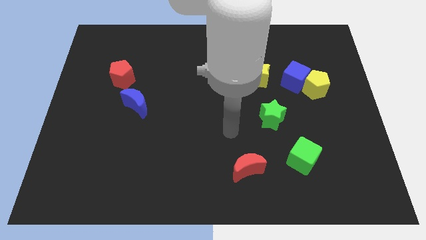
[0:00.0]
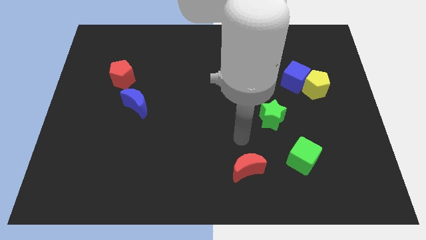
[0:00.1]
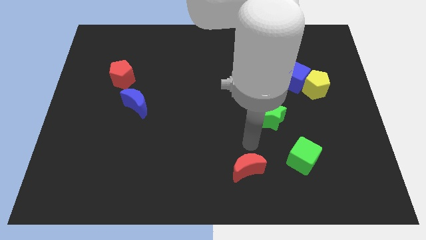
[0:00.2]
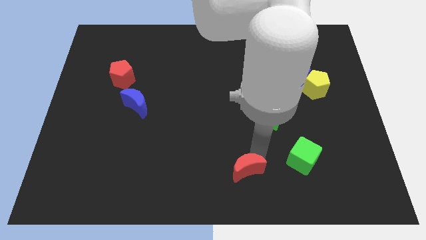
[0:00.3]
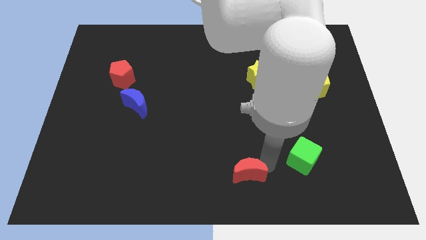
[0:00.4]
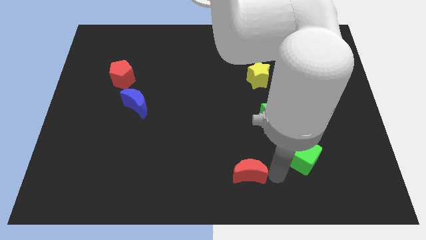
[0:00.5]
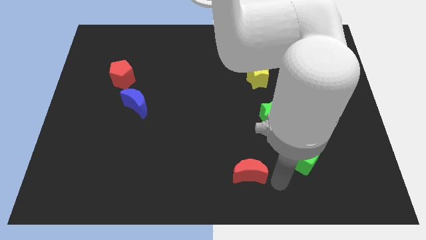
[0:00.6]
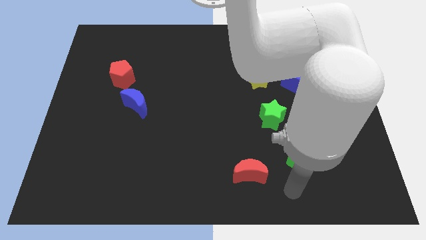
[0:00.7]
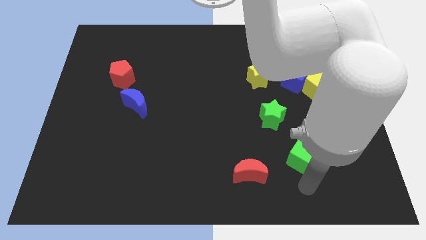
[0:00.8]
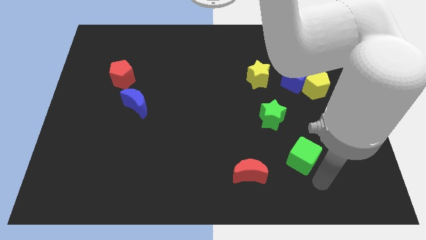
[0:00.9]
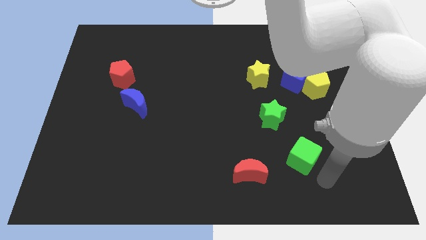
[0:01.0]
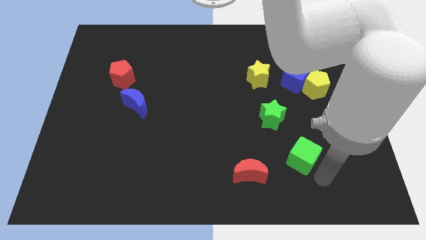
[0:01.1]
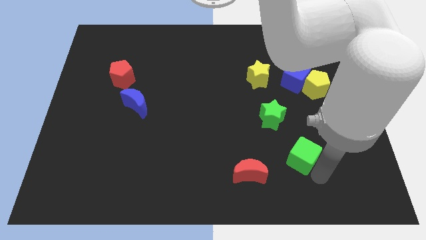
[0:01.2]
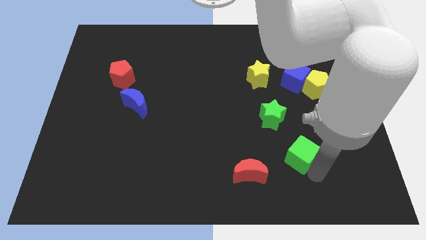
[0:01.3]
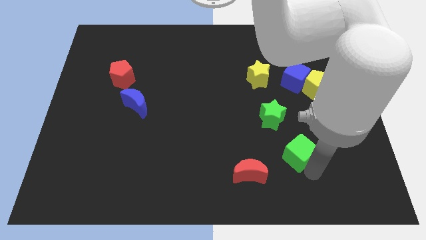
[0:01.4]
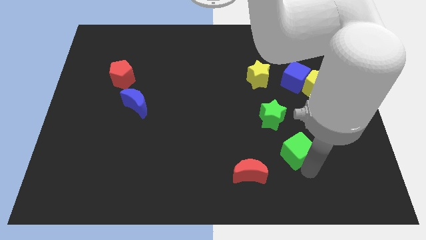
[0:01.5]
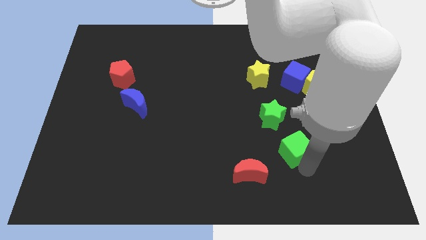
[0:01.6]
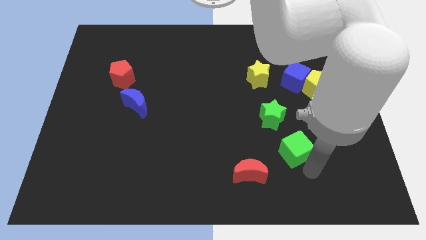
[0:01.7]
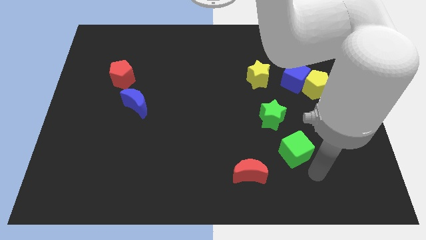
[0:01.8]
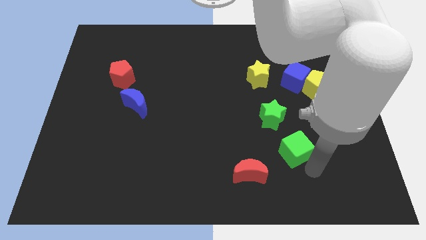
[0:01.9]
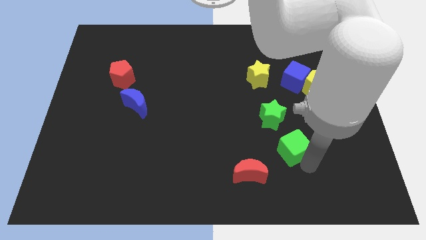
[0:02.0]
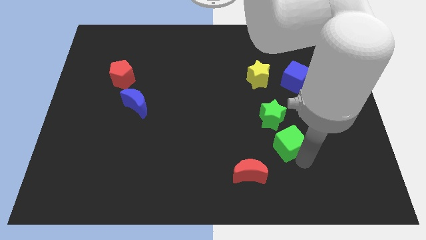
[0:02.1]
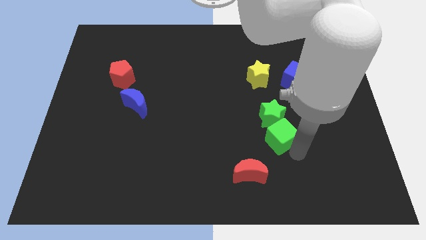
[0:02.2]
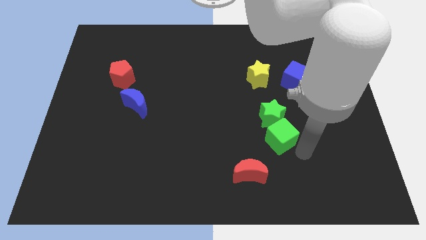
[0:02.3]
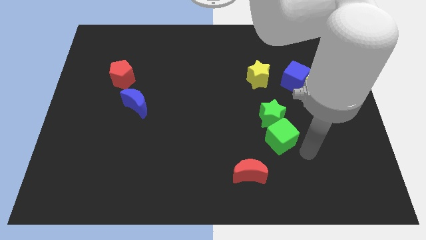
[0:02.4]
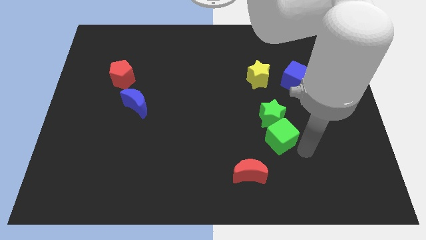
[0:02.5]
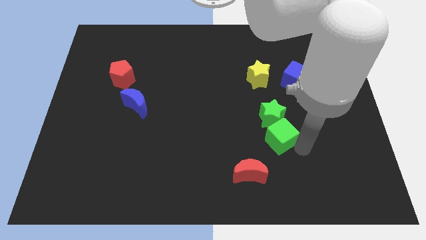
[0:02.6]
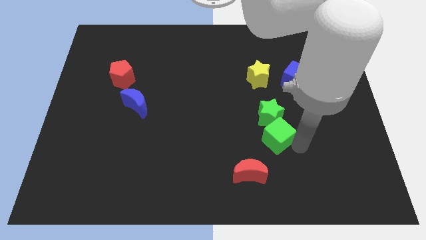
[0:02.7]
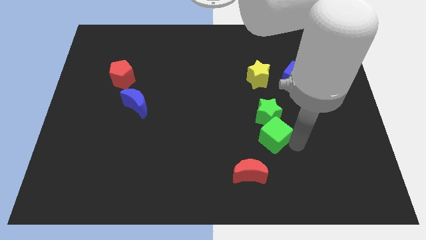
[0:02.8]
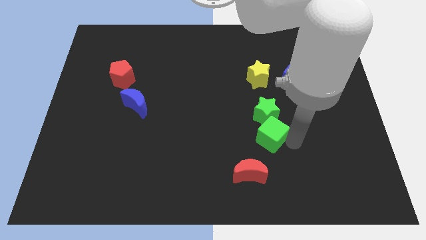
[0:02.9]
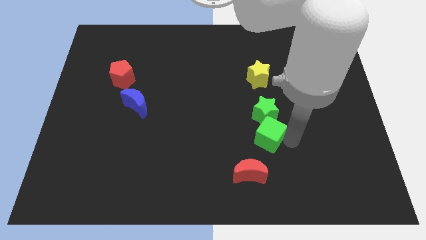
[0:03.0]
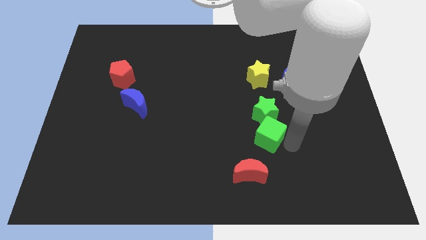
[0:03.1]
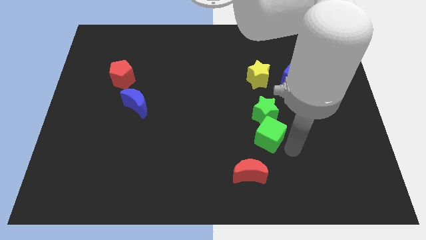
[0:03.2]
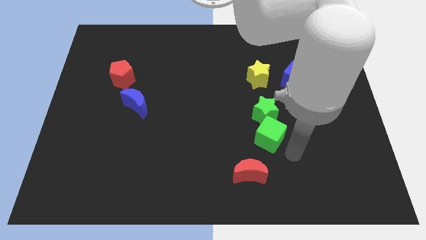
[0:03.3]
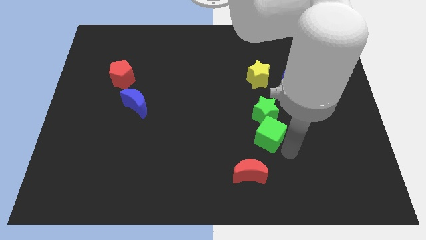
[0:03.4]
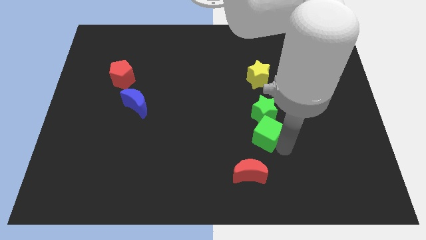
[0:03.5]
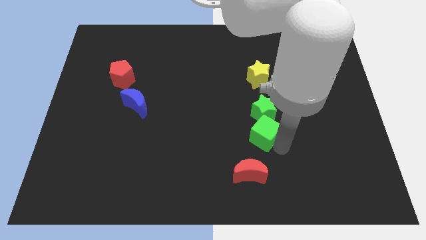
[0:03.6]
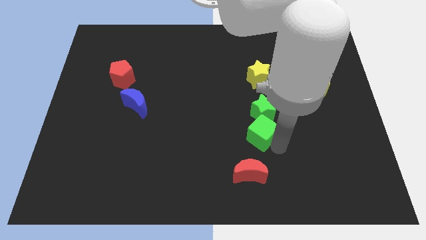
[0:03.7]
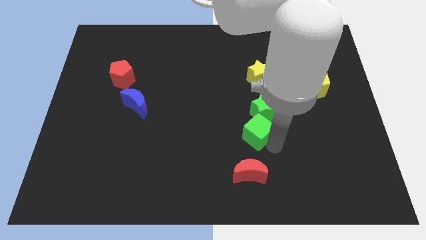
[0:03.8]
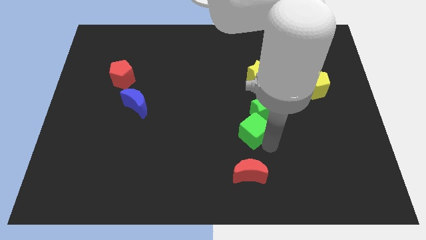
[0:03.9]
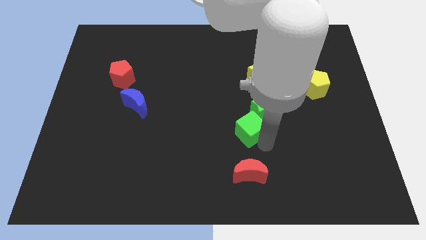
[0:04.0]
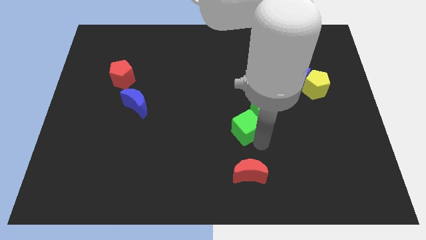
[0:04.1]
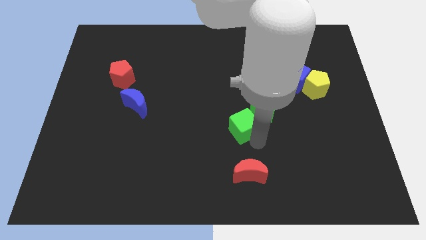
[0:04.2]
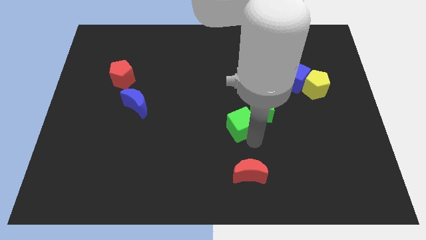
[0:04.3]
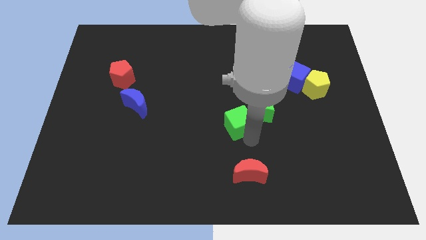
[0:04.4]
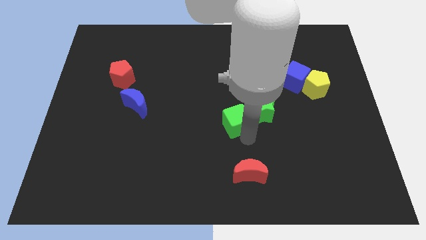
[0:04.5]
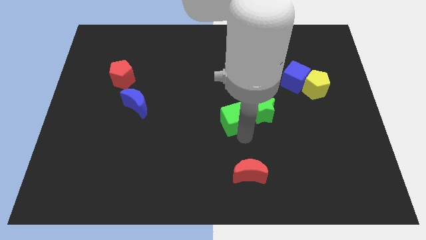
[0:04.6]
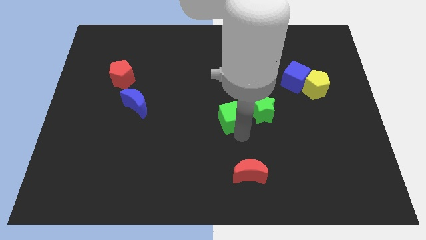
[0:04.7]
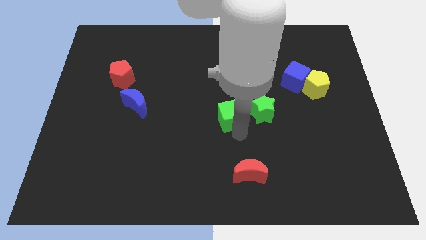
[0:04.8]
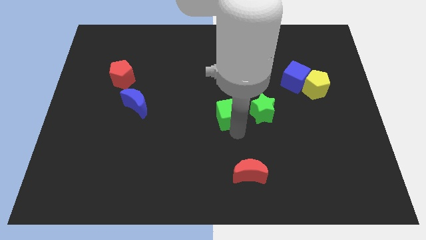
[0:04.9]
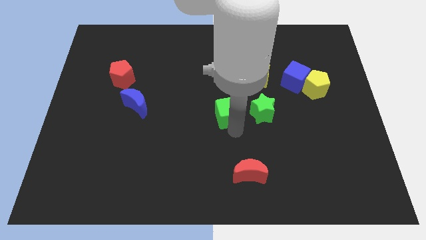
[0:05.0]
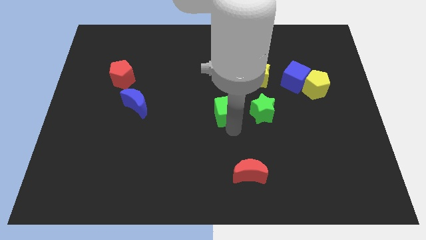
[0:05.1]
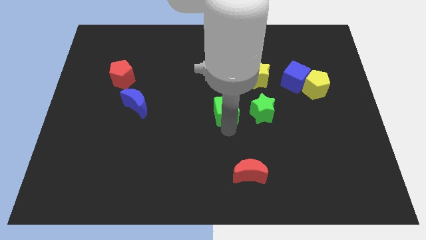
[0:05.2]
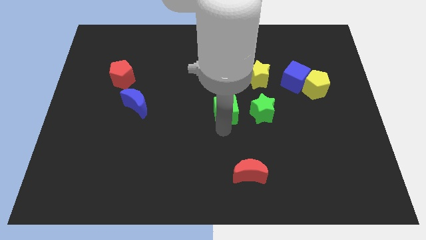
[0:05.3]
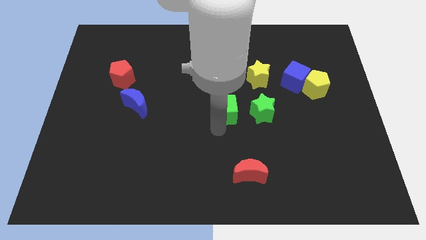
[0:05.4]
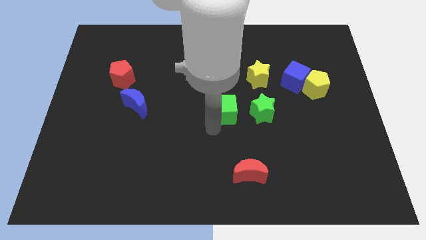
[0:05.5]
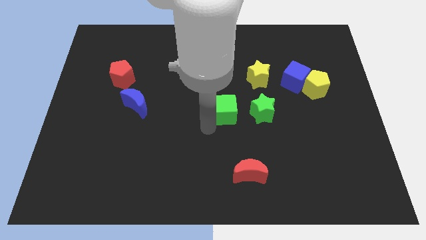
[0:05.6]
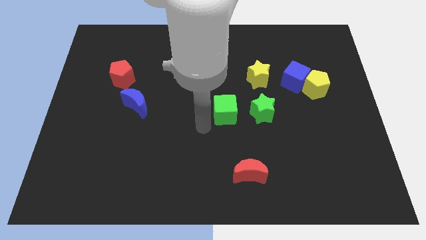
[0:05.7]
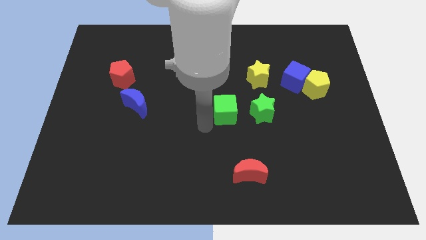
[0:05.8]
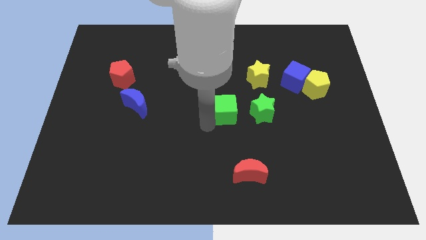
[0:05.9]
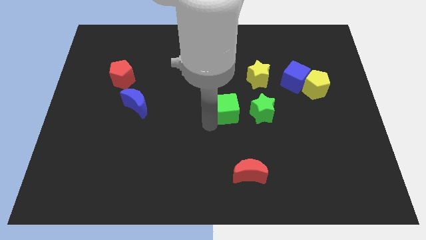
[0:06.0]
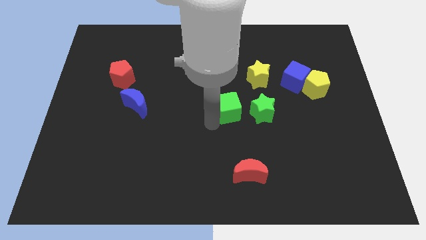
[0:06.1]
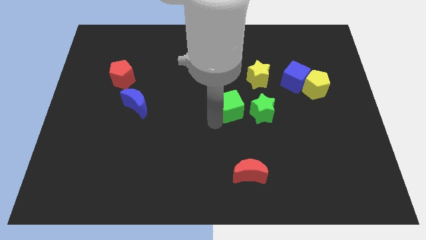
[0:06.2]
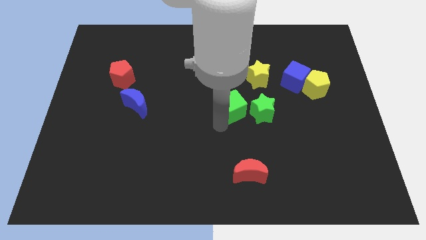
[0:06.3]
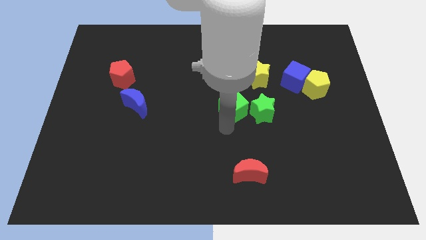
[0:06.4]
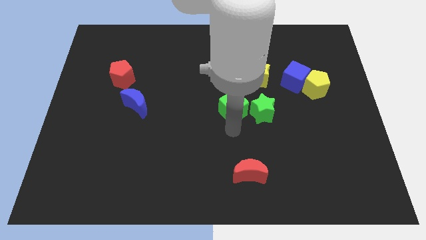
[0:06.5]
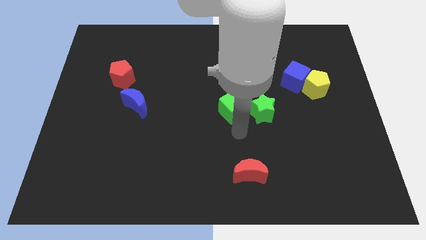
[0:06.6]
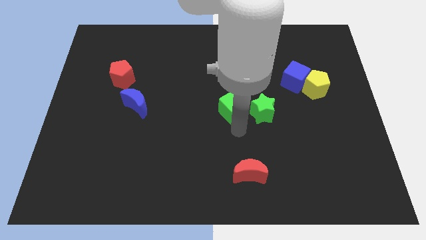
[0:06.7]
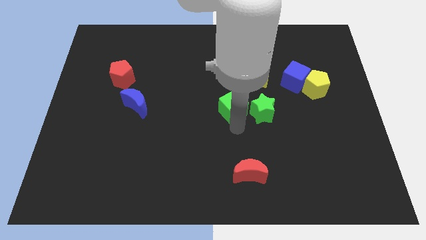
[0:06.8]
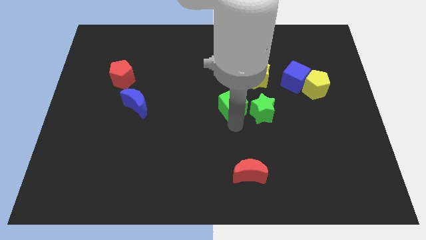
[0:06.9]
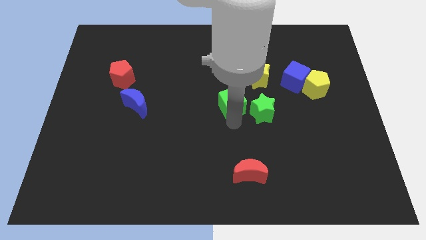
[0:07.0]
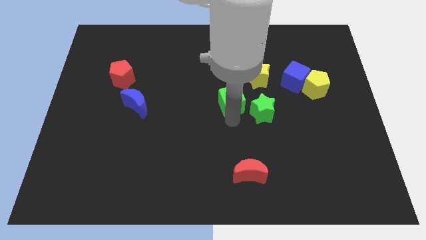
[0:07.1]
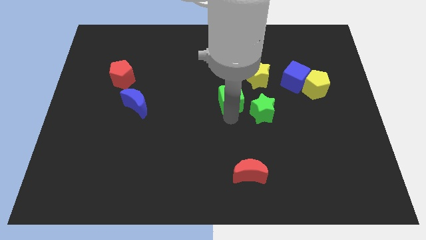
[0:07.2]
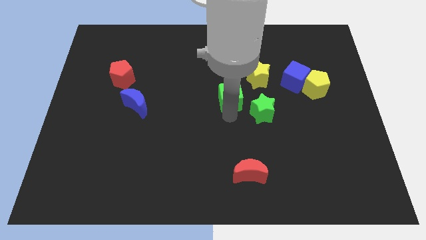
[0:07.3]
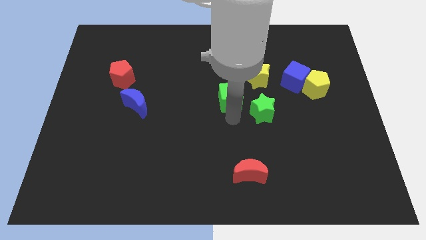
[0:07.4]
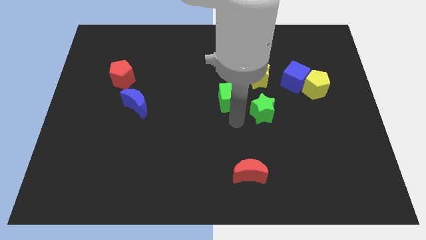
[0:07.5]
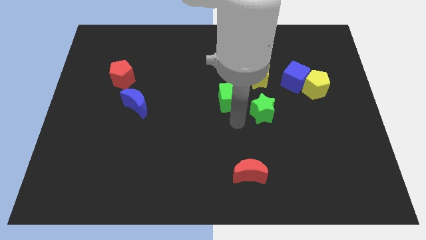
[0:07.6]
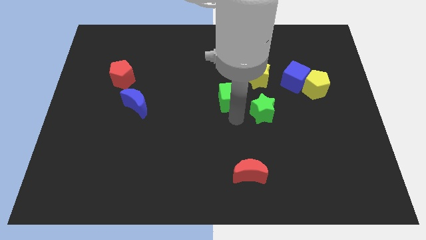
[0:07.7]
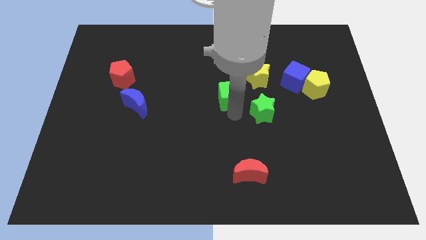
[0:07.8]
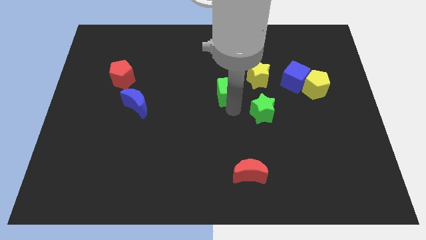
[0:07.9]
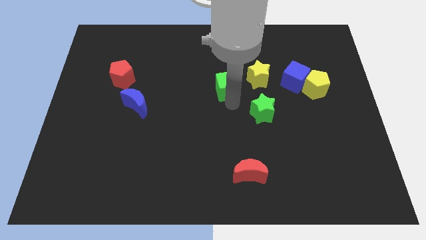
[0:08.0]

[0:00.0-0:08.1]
put the green cube left of the yellow star
